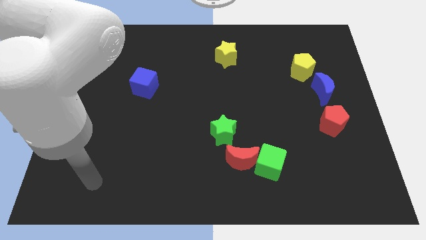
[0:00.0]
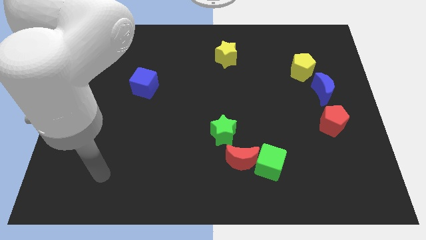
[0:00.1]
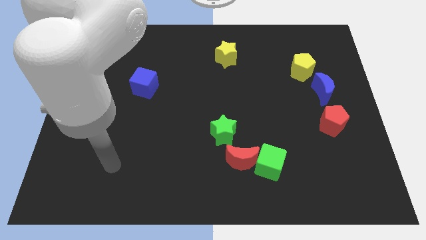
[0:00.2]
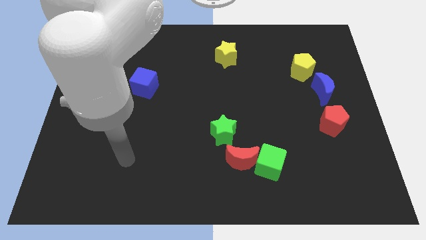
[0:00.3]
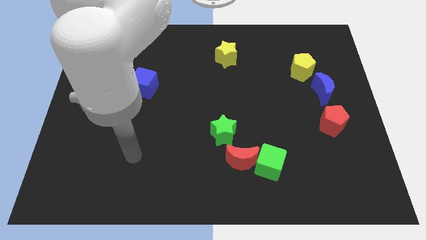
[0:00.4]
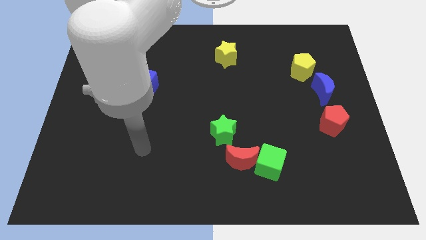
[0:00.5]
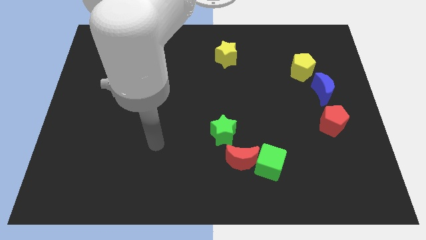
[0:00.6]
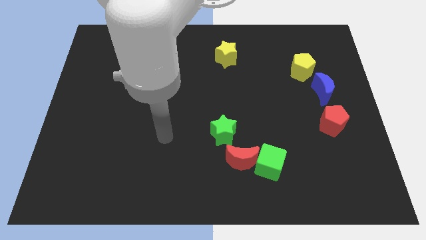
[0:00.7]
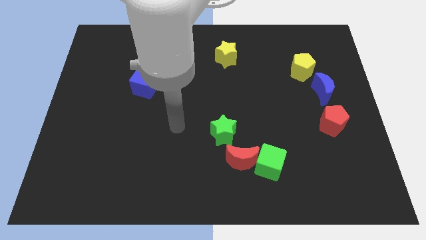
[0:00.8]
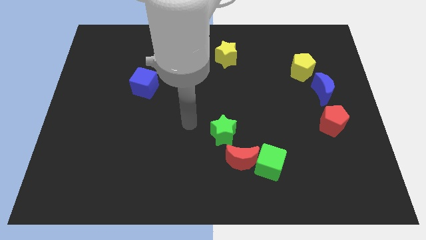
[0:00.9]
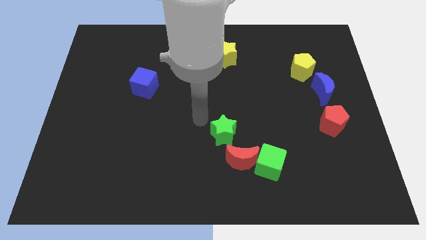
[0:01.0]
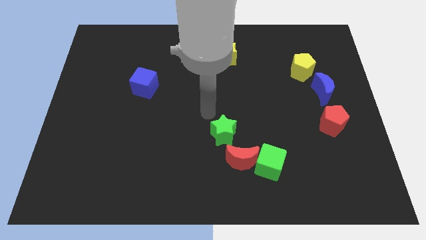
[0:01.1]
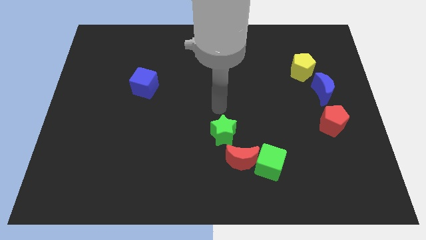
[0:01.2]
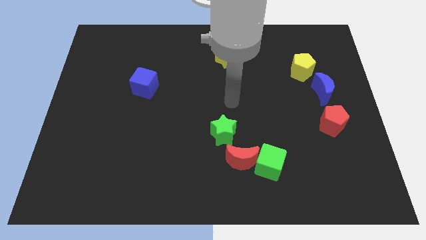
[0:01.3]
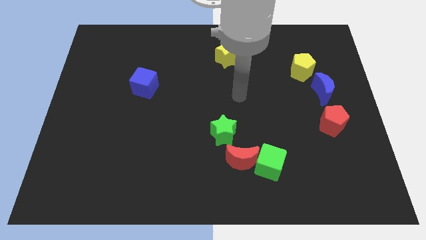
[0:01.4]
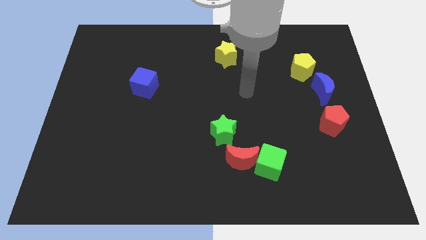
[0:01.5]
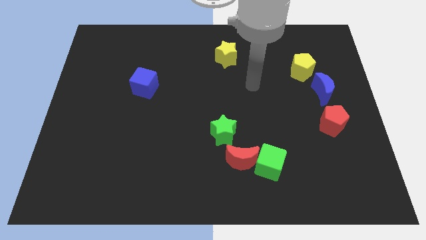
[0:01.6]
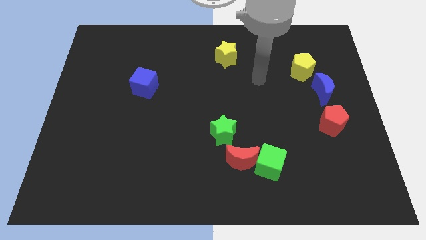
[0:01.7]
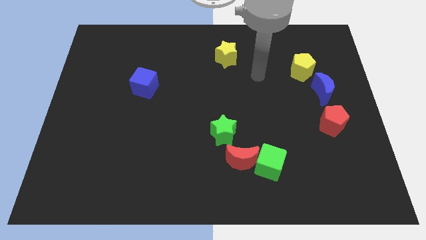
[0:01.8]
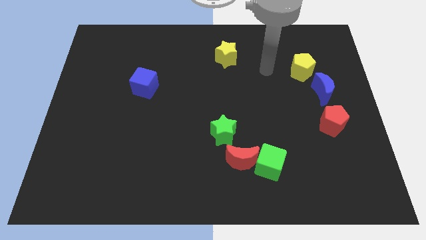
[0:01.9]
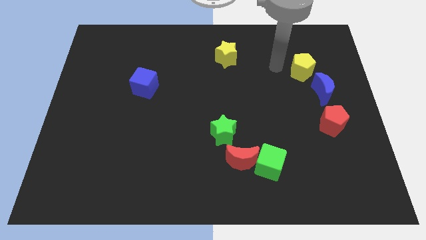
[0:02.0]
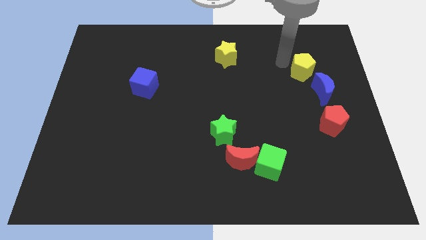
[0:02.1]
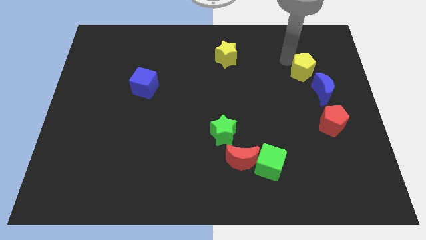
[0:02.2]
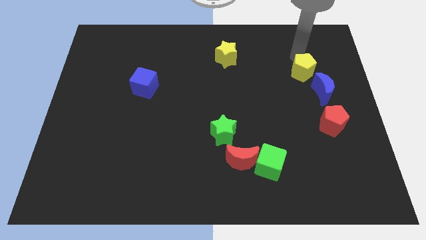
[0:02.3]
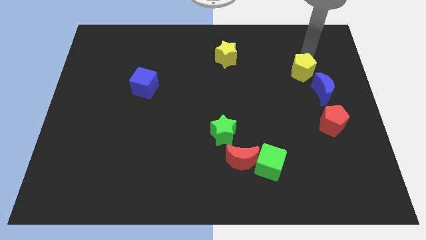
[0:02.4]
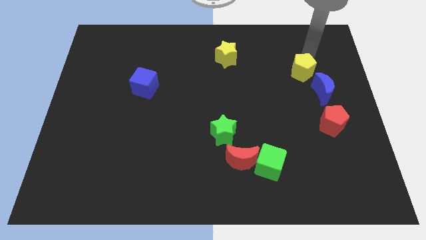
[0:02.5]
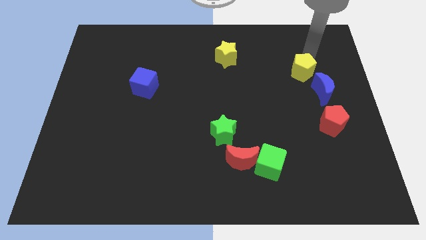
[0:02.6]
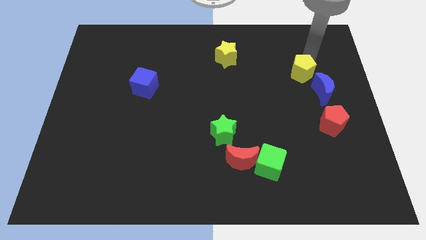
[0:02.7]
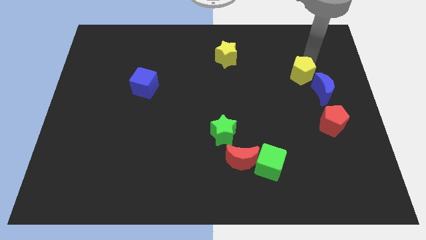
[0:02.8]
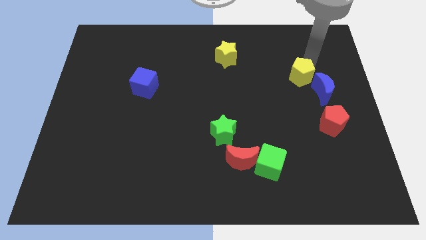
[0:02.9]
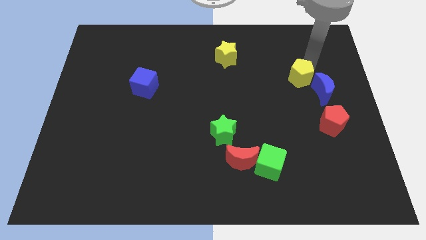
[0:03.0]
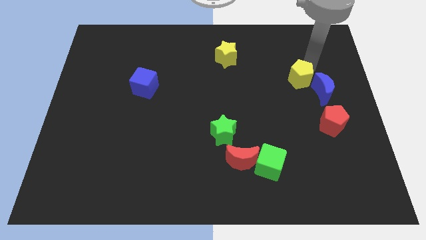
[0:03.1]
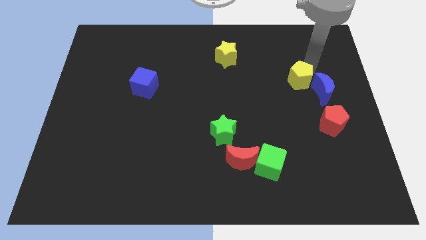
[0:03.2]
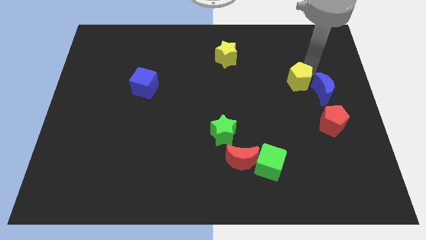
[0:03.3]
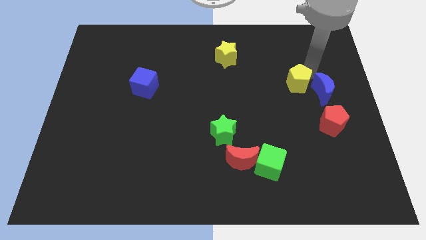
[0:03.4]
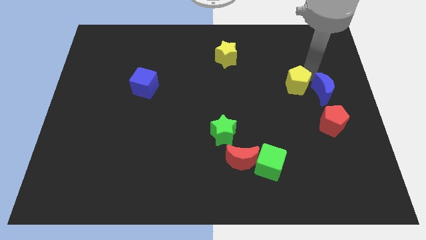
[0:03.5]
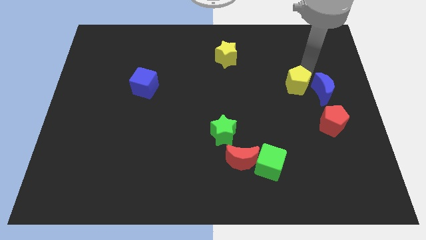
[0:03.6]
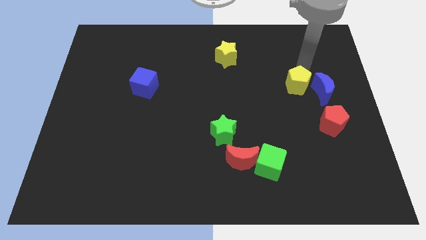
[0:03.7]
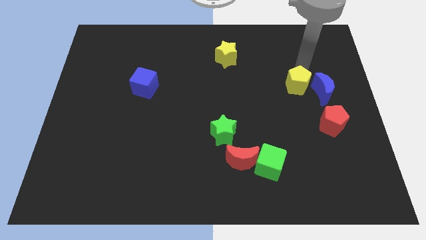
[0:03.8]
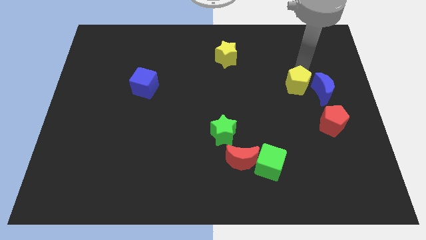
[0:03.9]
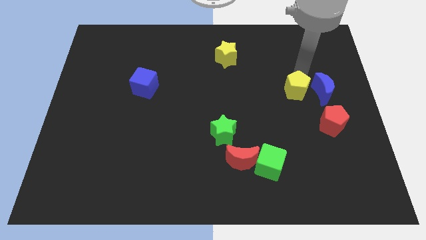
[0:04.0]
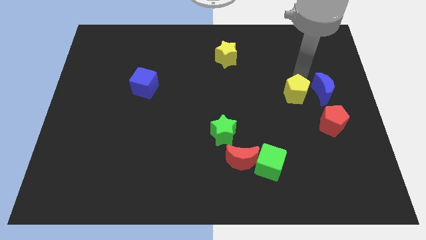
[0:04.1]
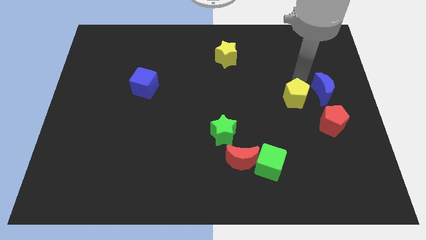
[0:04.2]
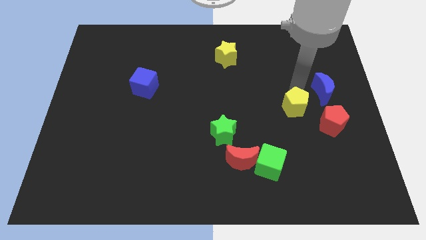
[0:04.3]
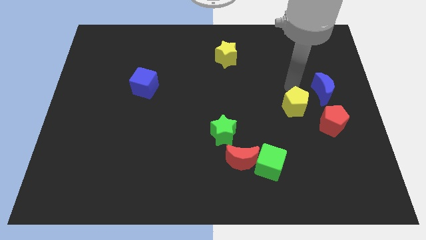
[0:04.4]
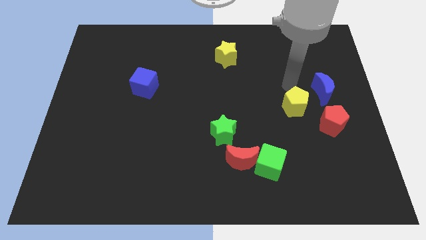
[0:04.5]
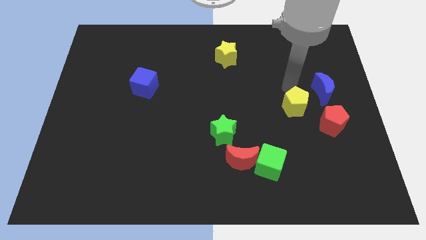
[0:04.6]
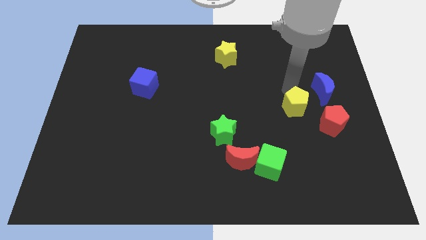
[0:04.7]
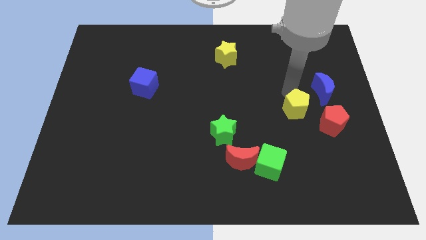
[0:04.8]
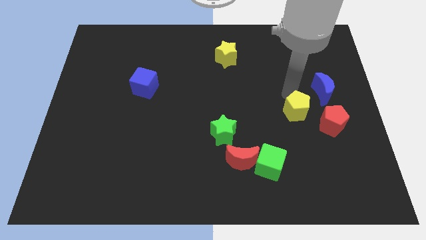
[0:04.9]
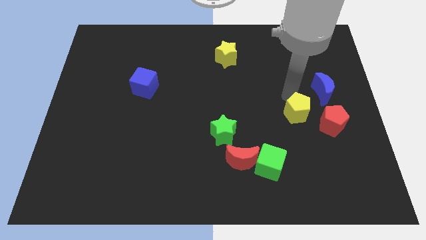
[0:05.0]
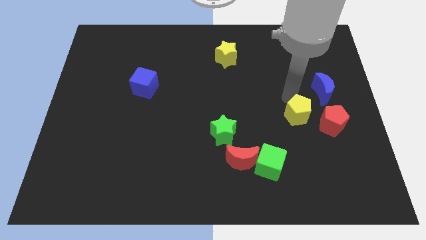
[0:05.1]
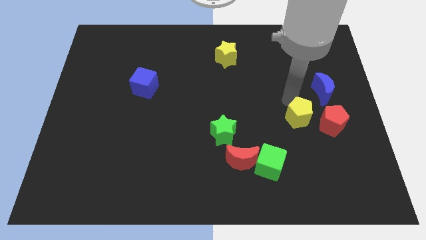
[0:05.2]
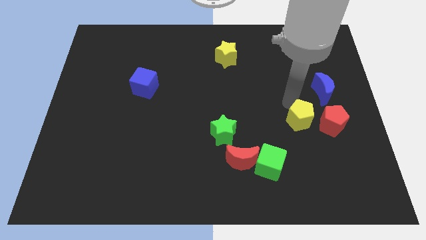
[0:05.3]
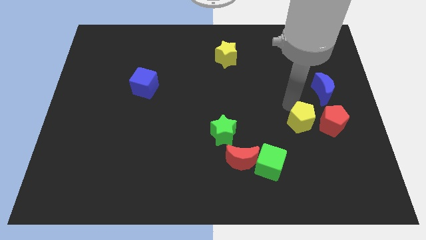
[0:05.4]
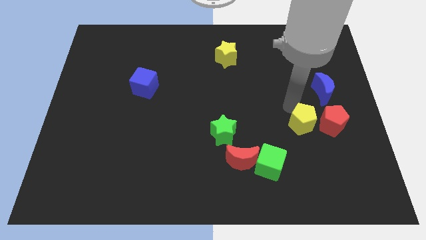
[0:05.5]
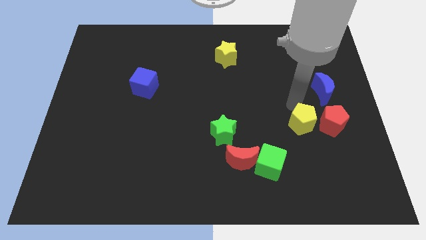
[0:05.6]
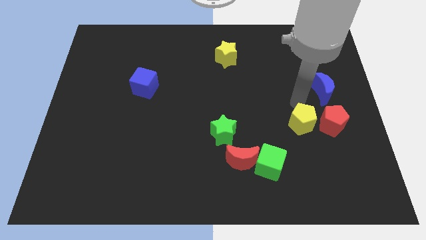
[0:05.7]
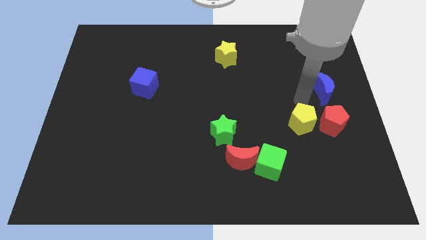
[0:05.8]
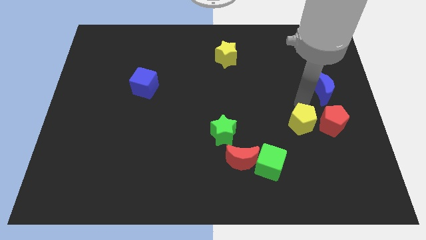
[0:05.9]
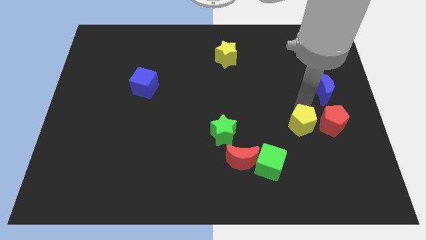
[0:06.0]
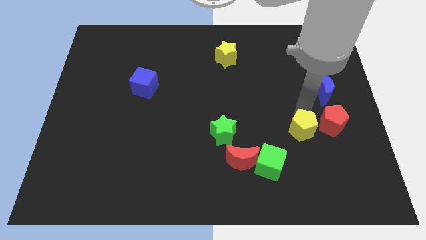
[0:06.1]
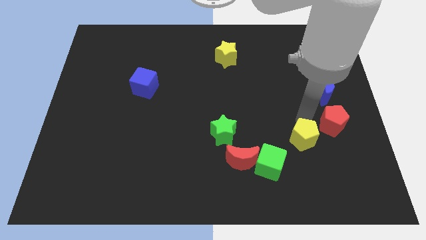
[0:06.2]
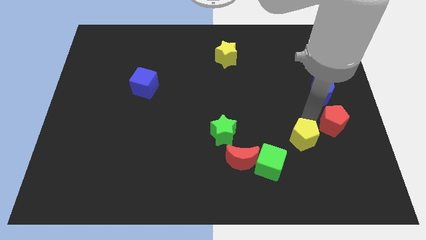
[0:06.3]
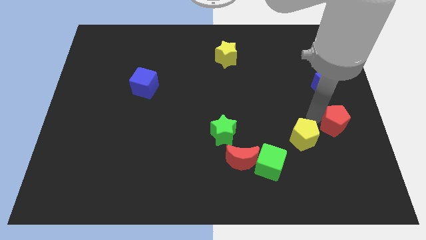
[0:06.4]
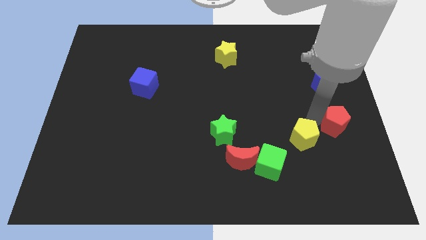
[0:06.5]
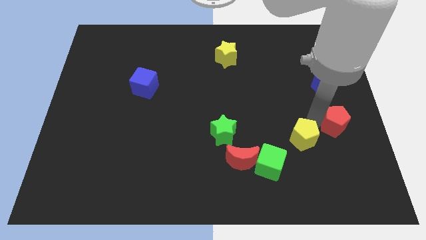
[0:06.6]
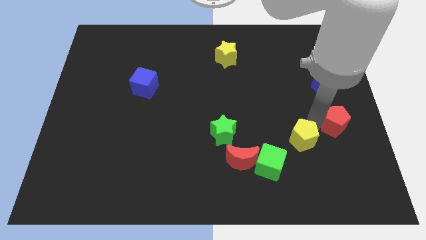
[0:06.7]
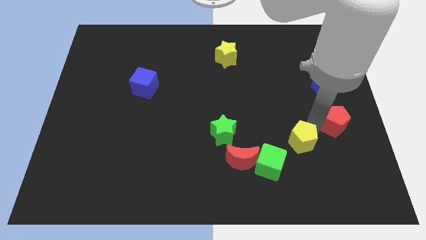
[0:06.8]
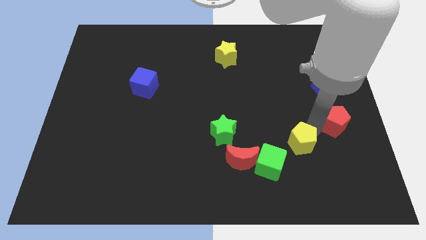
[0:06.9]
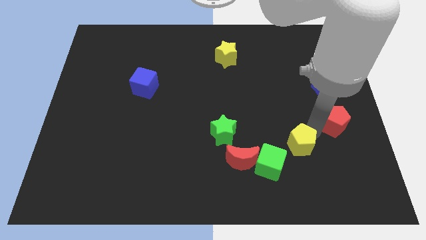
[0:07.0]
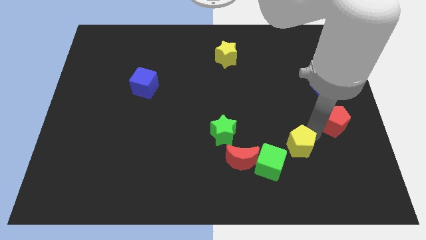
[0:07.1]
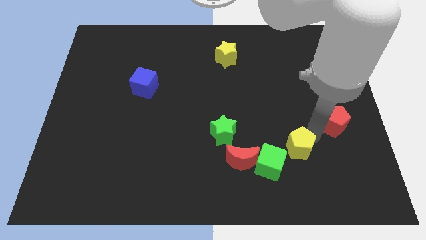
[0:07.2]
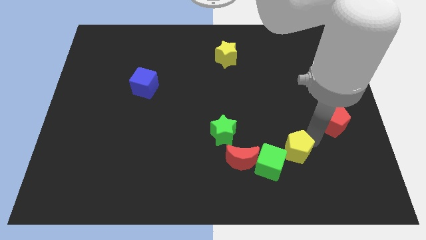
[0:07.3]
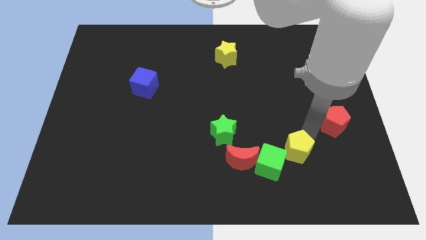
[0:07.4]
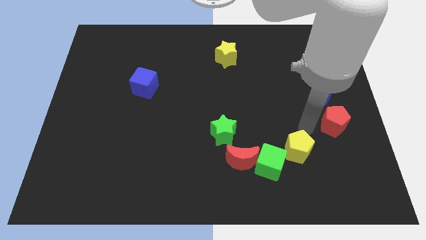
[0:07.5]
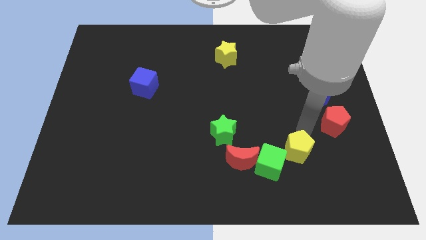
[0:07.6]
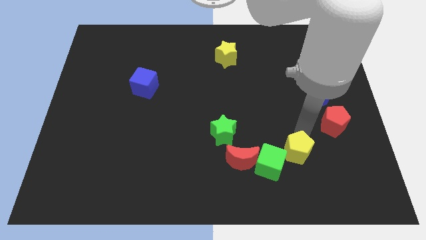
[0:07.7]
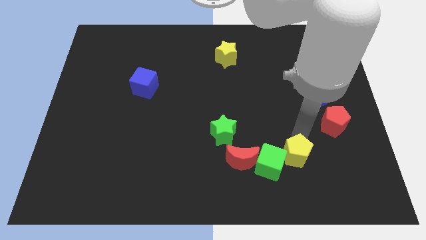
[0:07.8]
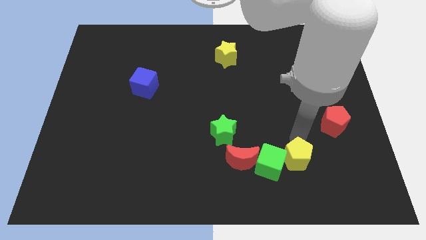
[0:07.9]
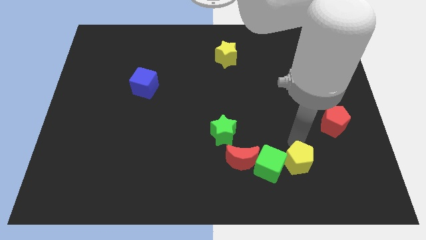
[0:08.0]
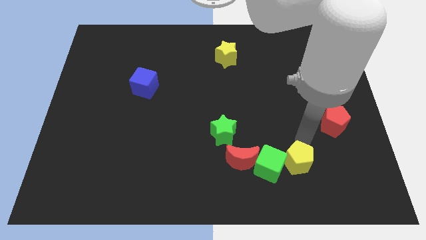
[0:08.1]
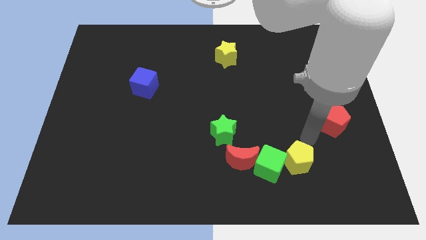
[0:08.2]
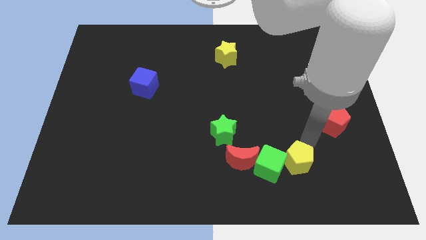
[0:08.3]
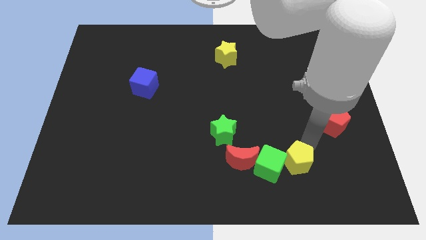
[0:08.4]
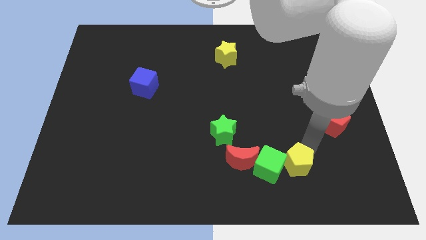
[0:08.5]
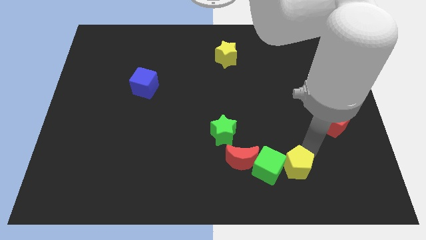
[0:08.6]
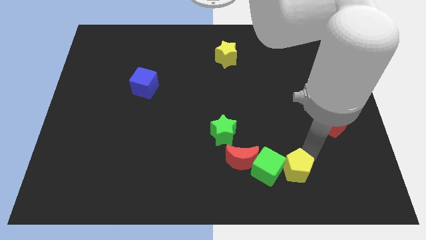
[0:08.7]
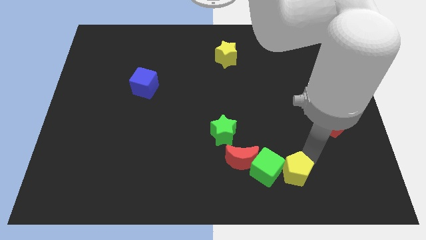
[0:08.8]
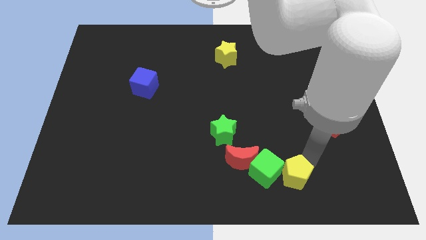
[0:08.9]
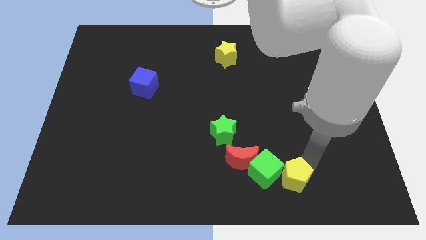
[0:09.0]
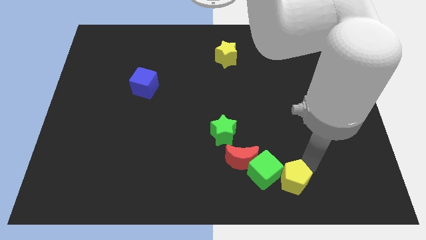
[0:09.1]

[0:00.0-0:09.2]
move the yellow pentagon to the bottom right side of the red moon
